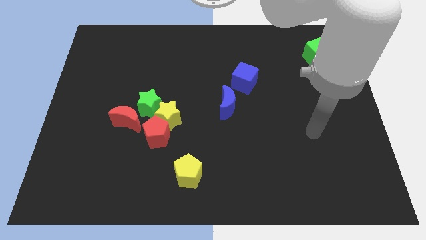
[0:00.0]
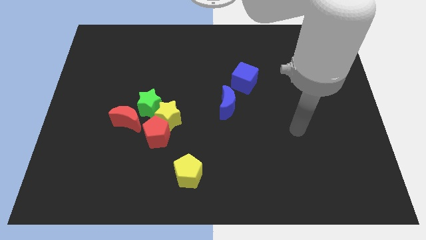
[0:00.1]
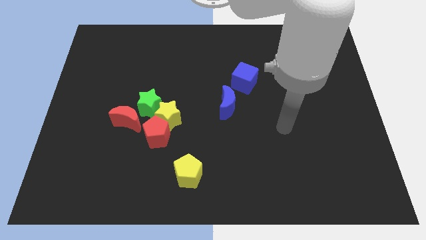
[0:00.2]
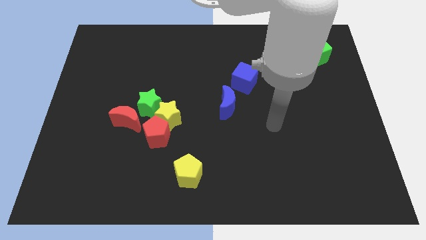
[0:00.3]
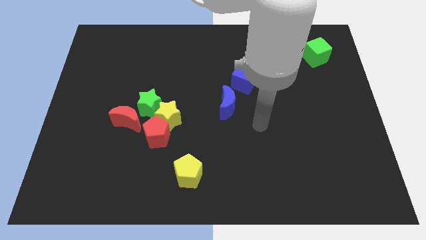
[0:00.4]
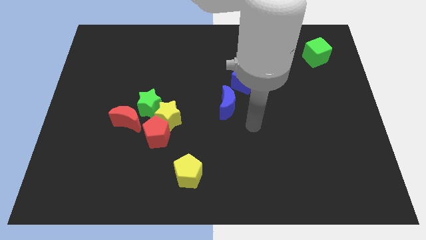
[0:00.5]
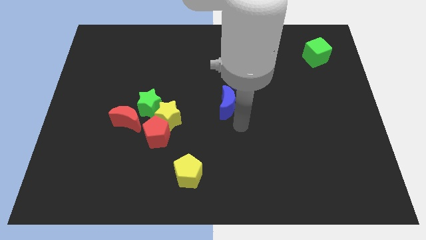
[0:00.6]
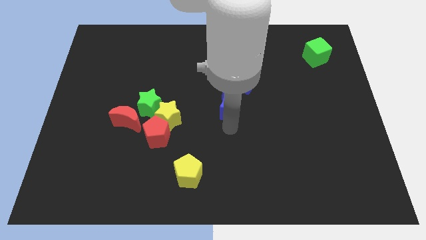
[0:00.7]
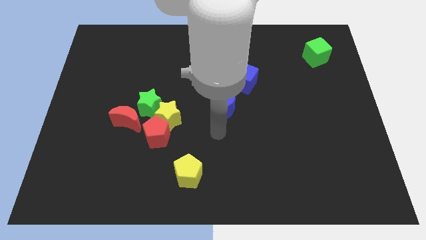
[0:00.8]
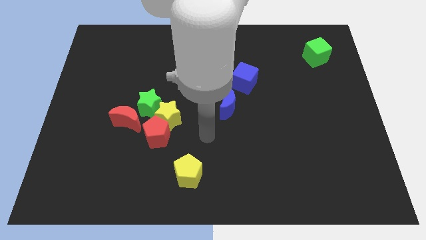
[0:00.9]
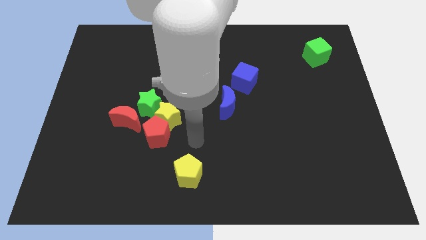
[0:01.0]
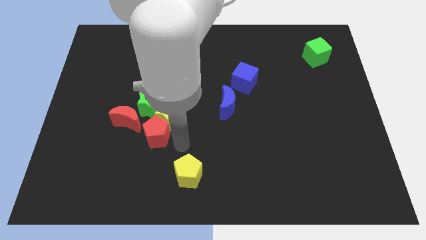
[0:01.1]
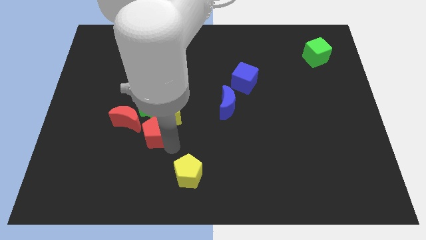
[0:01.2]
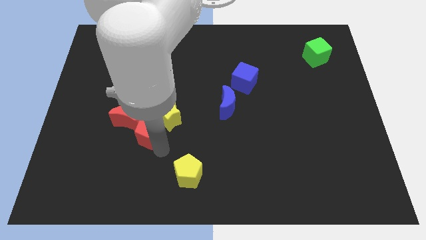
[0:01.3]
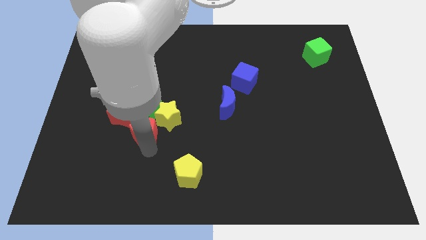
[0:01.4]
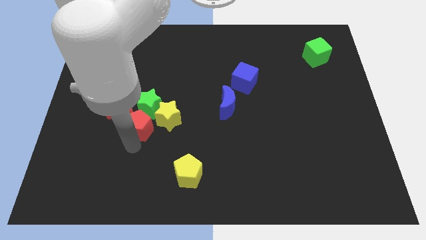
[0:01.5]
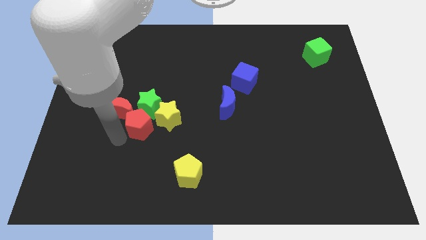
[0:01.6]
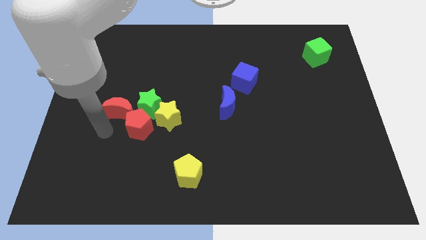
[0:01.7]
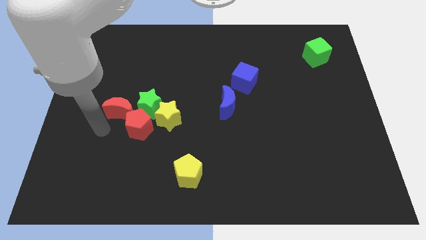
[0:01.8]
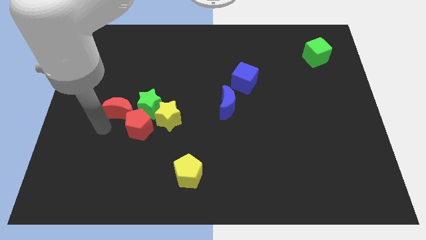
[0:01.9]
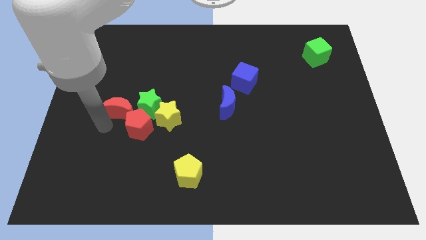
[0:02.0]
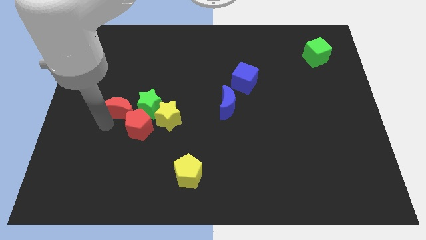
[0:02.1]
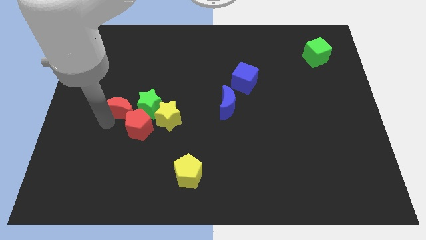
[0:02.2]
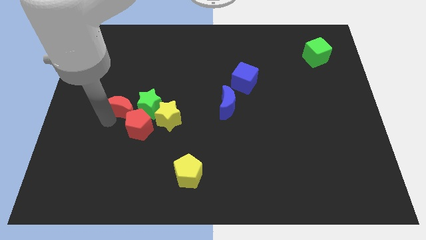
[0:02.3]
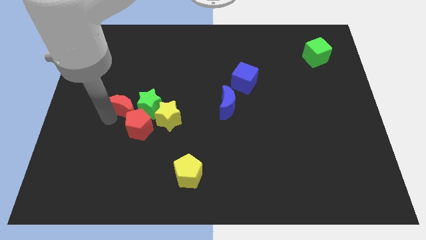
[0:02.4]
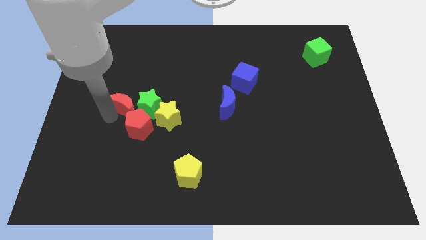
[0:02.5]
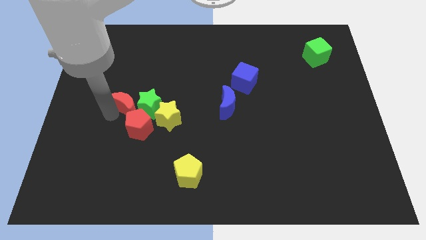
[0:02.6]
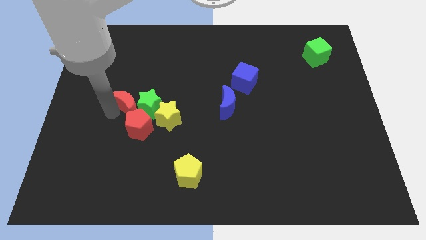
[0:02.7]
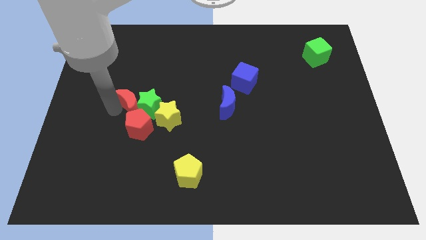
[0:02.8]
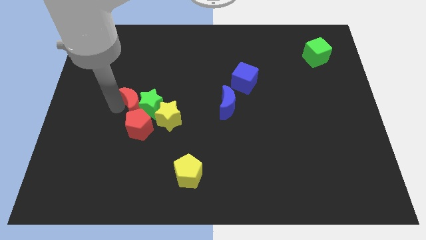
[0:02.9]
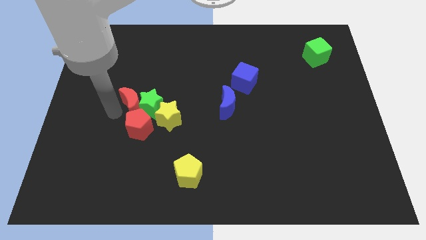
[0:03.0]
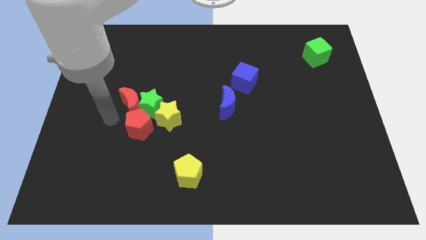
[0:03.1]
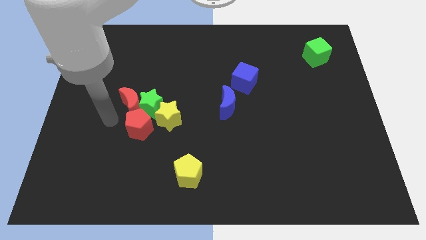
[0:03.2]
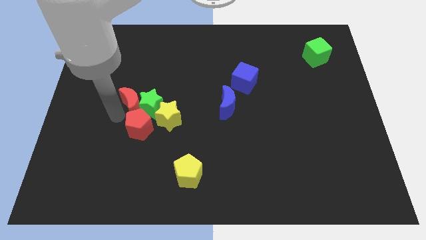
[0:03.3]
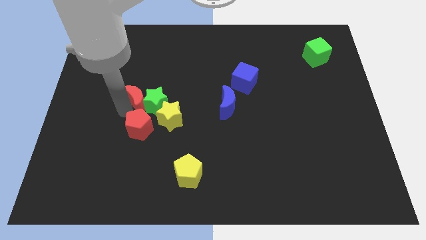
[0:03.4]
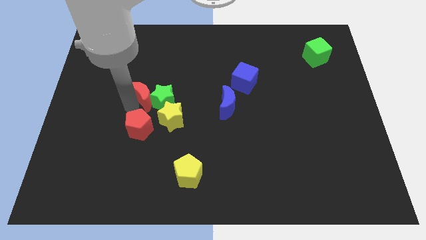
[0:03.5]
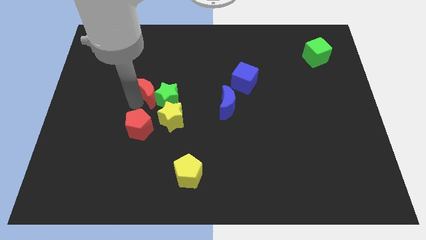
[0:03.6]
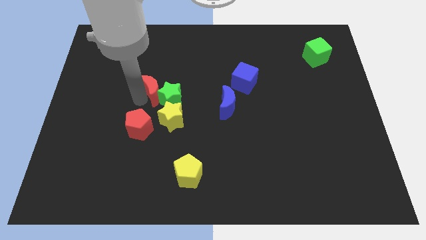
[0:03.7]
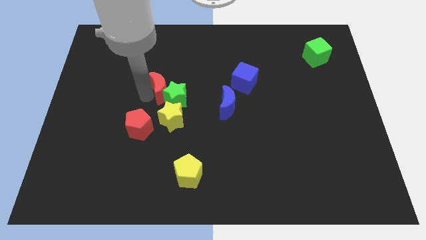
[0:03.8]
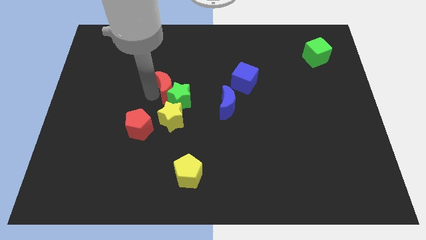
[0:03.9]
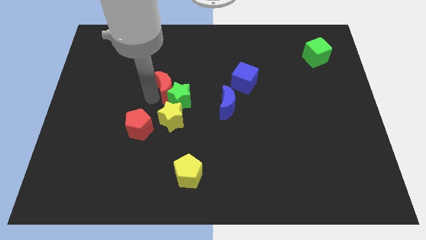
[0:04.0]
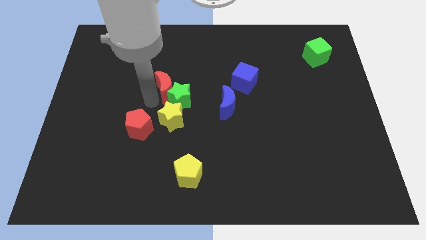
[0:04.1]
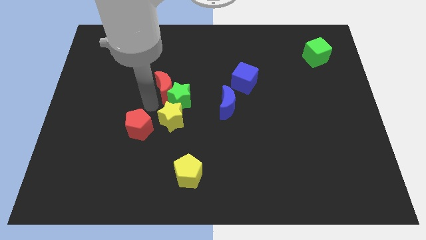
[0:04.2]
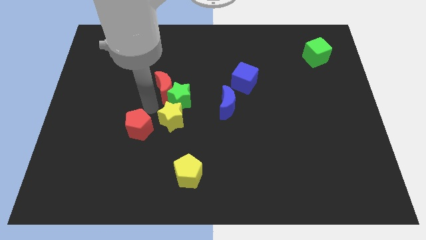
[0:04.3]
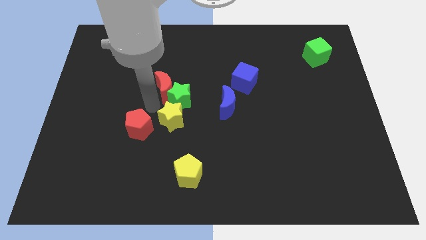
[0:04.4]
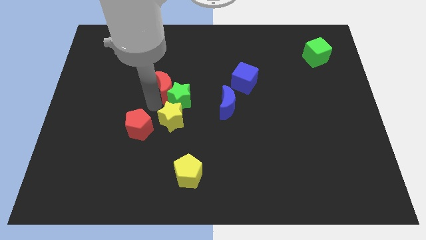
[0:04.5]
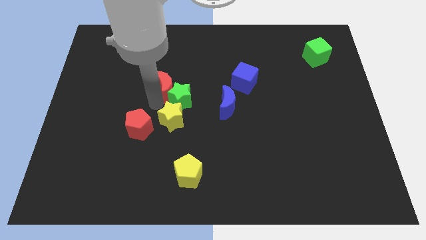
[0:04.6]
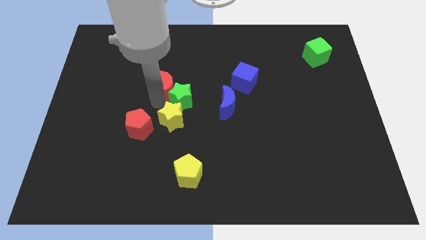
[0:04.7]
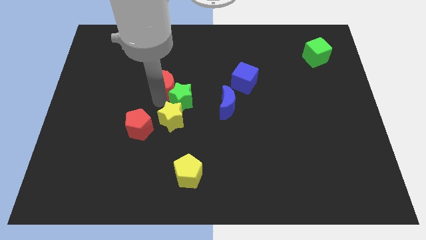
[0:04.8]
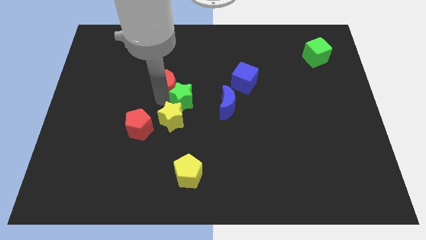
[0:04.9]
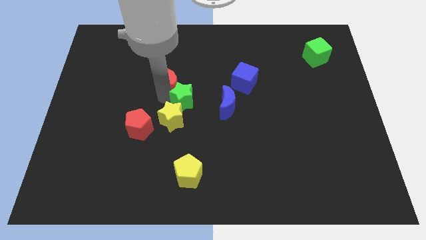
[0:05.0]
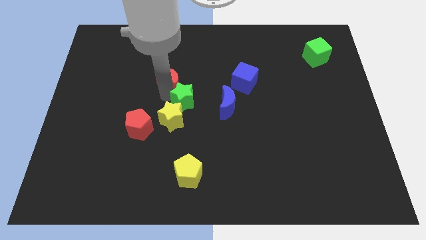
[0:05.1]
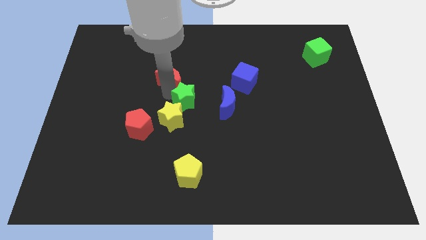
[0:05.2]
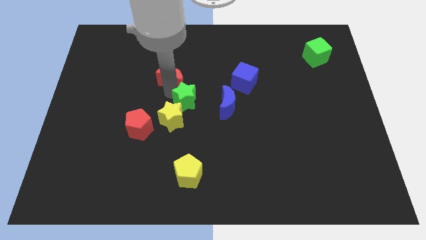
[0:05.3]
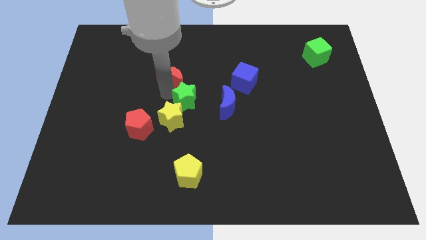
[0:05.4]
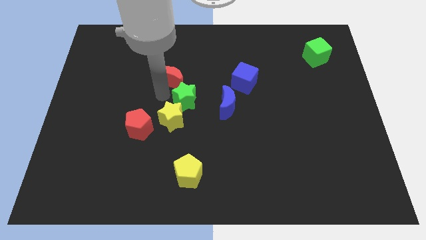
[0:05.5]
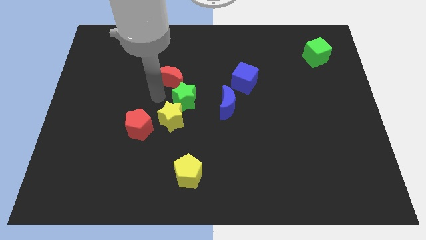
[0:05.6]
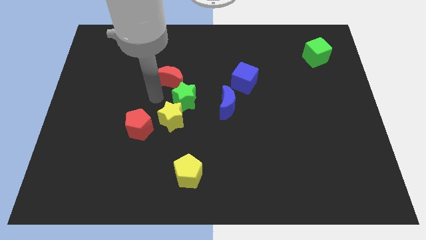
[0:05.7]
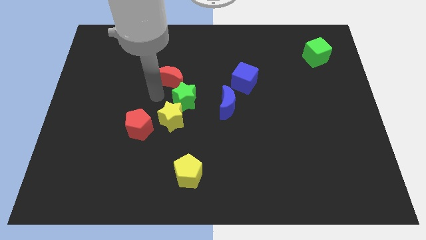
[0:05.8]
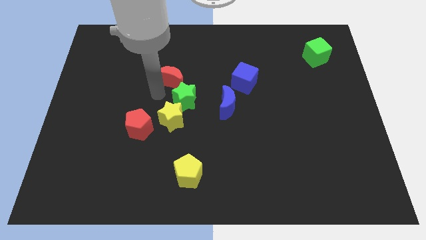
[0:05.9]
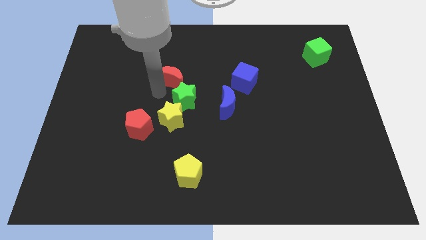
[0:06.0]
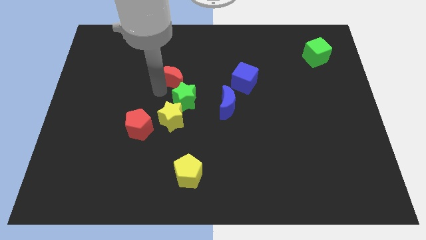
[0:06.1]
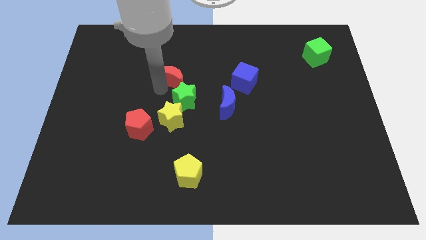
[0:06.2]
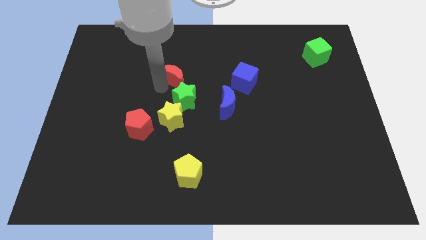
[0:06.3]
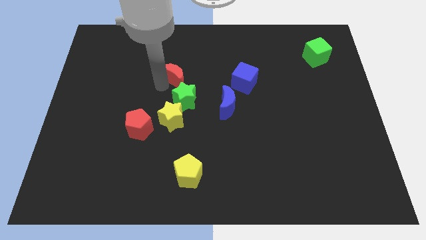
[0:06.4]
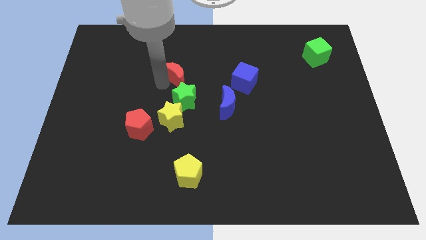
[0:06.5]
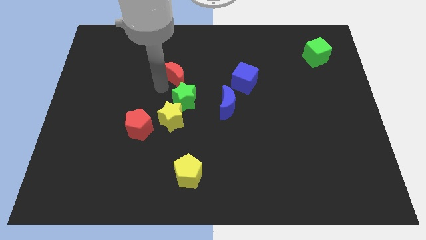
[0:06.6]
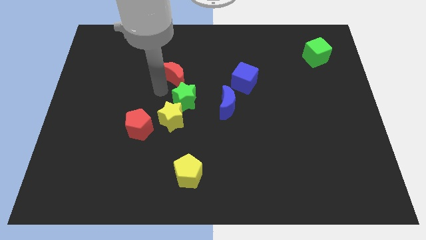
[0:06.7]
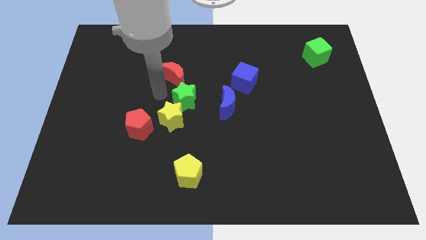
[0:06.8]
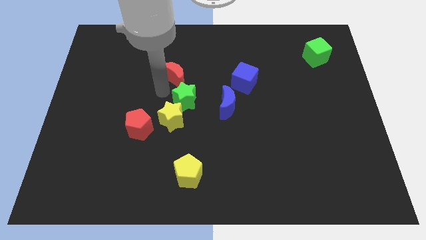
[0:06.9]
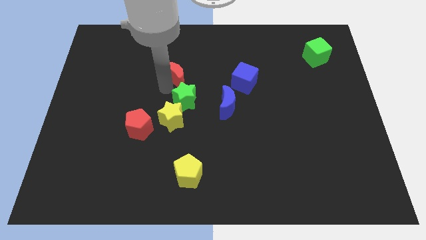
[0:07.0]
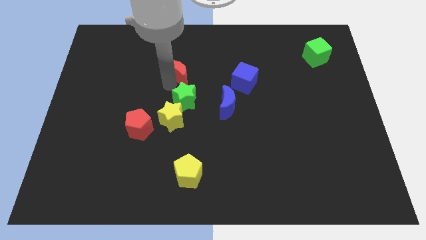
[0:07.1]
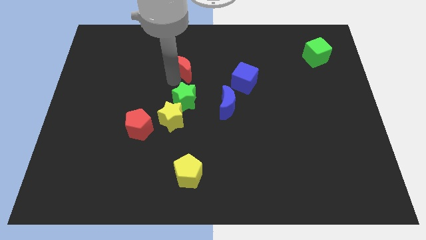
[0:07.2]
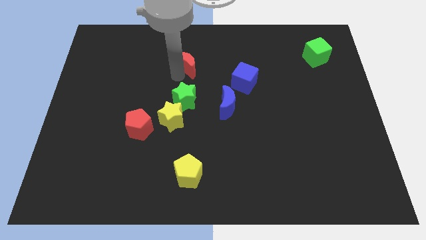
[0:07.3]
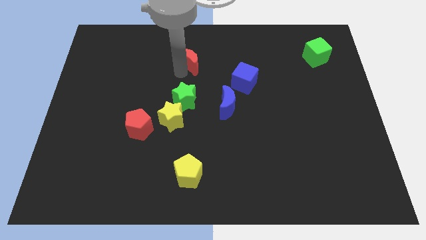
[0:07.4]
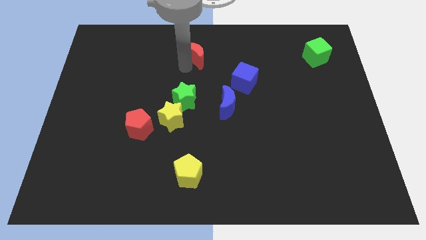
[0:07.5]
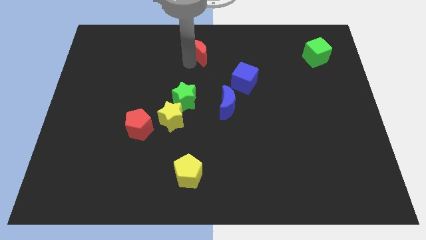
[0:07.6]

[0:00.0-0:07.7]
push the red moon to the top
